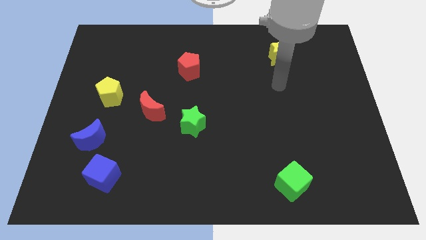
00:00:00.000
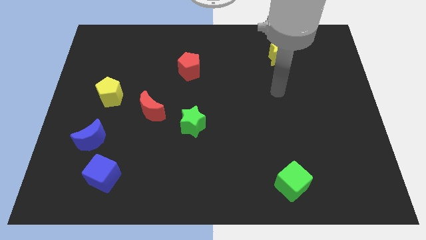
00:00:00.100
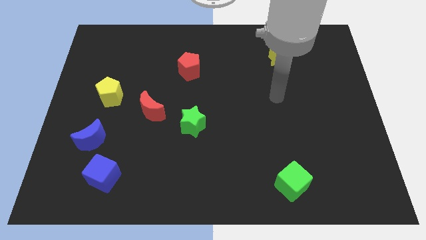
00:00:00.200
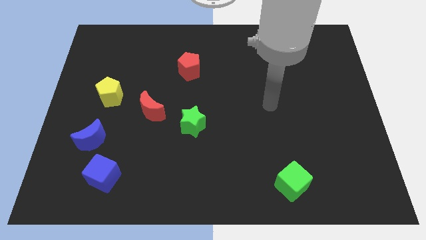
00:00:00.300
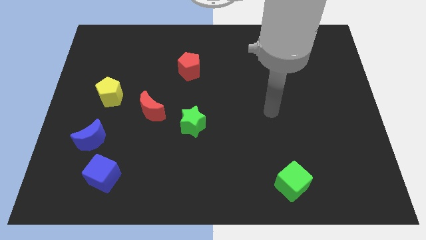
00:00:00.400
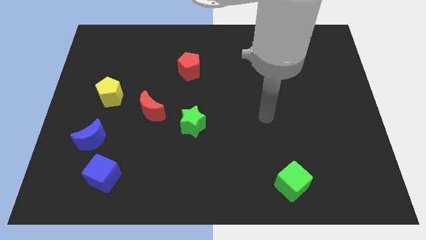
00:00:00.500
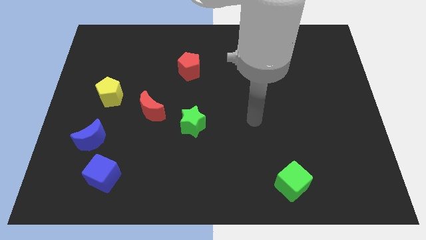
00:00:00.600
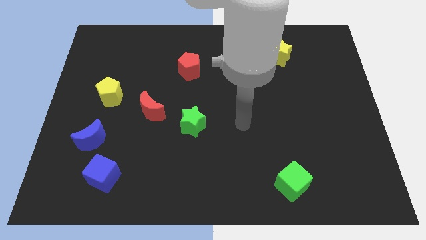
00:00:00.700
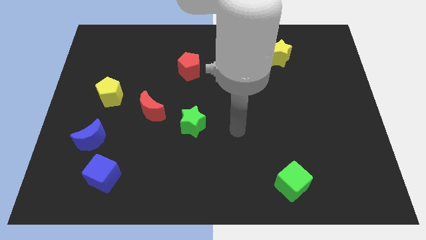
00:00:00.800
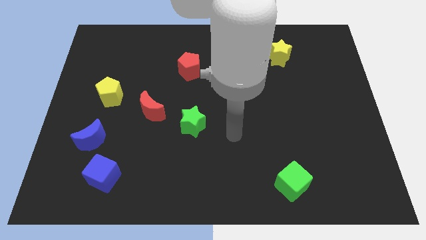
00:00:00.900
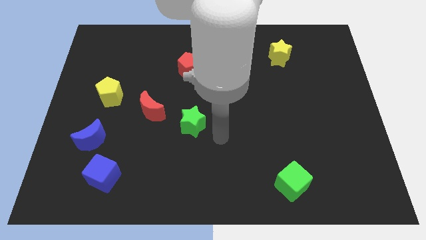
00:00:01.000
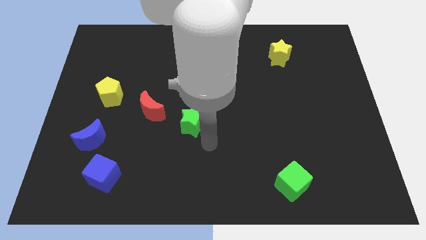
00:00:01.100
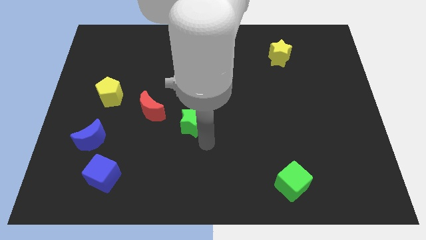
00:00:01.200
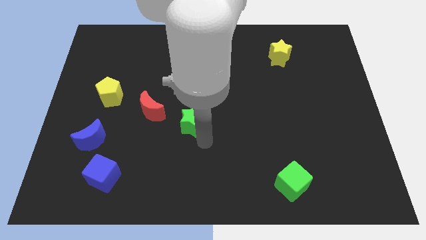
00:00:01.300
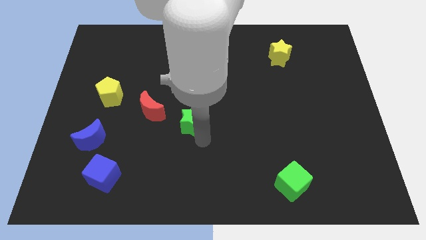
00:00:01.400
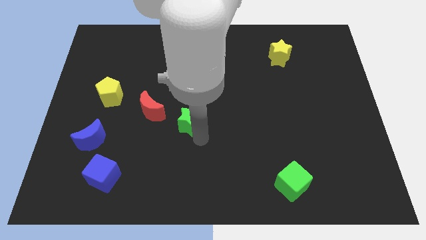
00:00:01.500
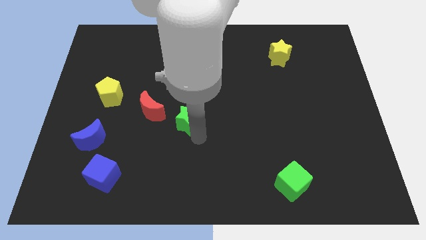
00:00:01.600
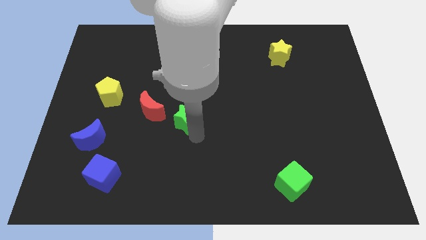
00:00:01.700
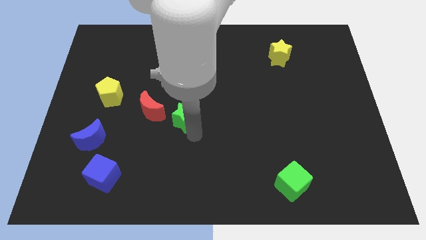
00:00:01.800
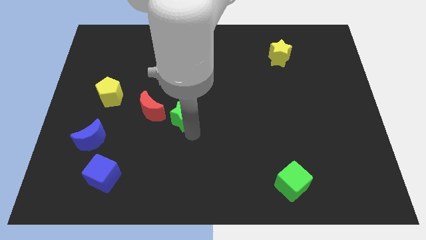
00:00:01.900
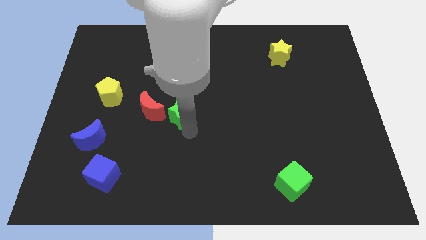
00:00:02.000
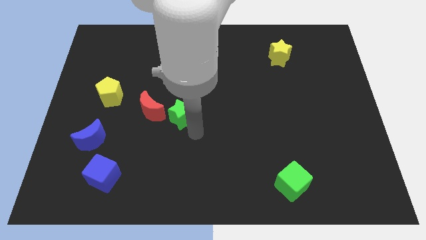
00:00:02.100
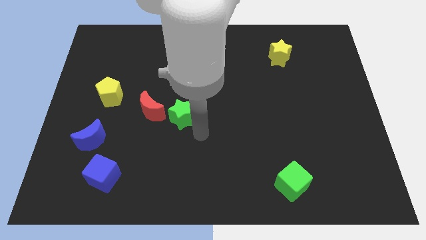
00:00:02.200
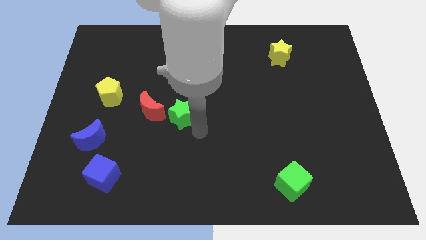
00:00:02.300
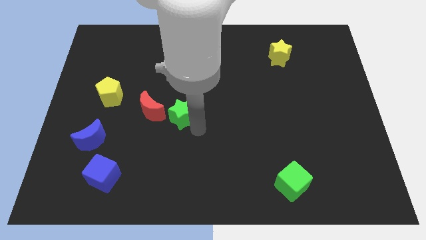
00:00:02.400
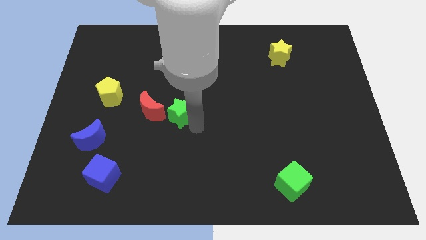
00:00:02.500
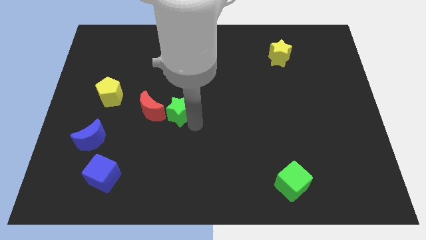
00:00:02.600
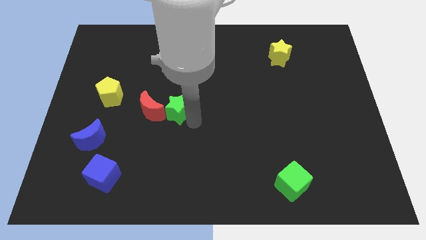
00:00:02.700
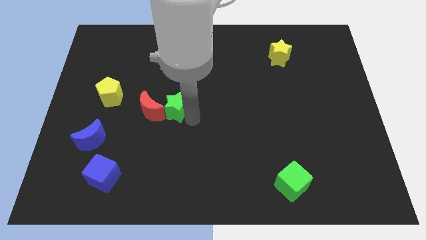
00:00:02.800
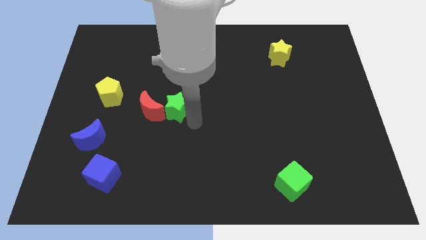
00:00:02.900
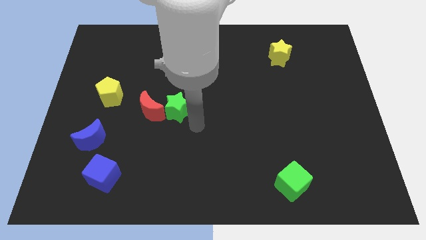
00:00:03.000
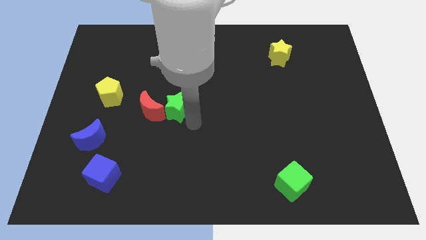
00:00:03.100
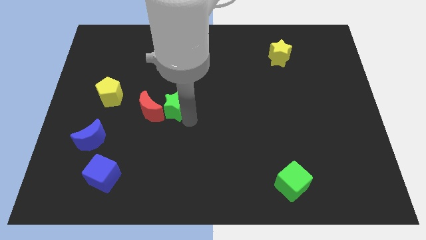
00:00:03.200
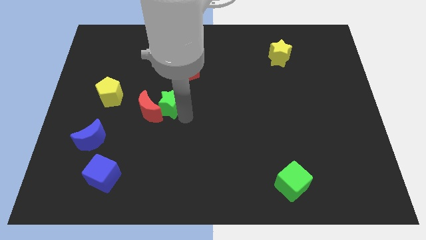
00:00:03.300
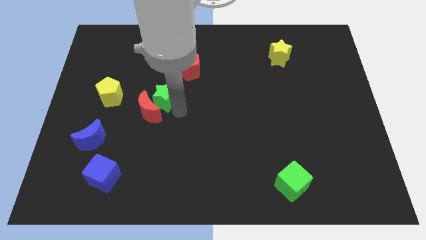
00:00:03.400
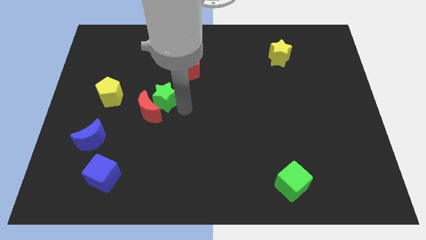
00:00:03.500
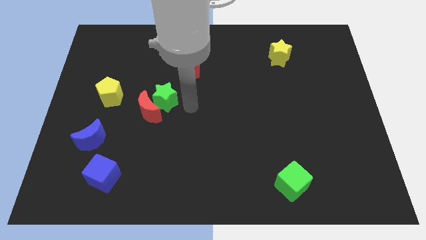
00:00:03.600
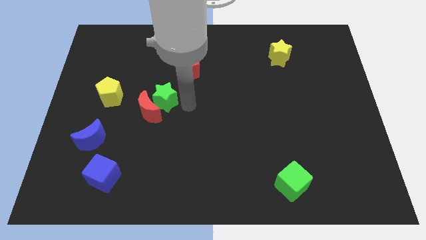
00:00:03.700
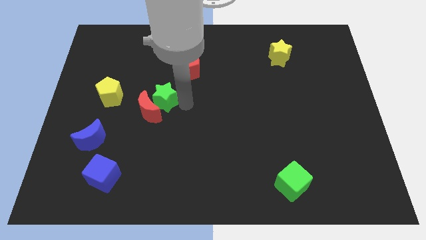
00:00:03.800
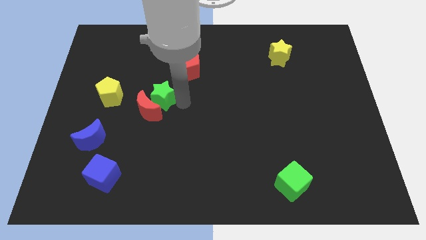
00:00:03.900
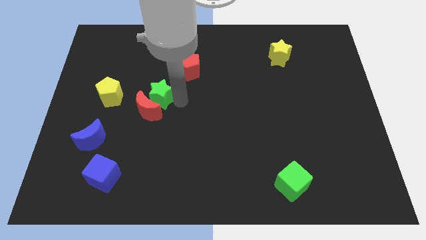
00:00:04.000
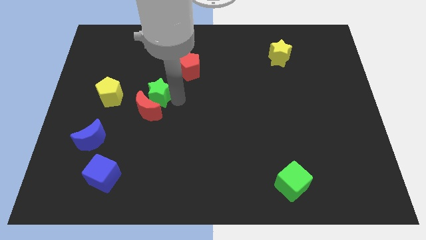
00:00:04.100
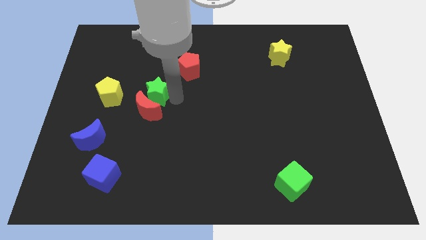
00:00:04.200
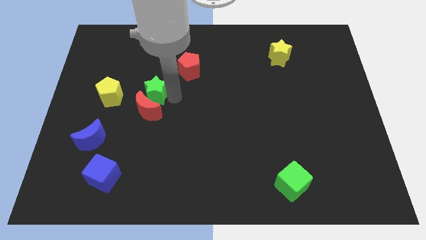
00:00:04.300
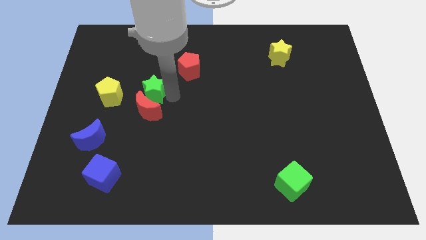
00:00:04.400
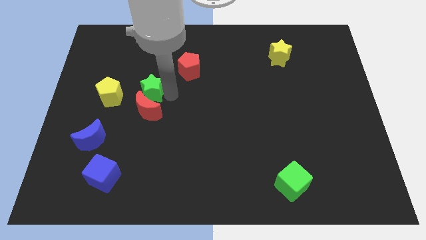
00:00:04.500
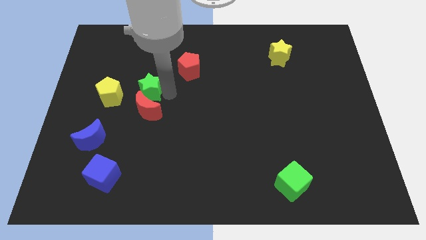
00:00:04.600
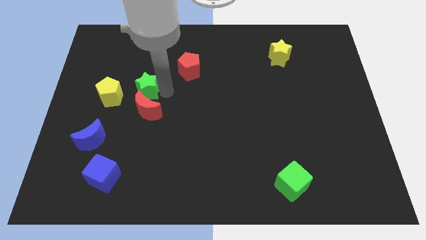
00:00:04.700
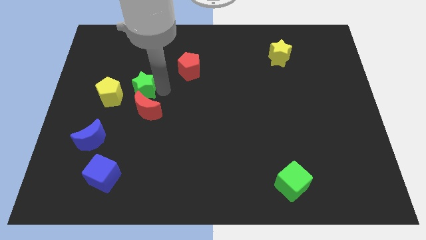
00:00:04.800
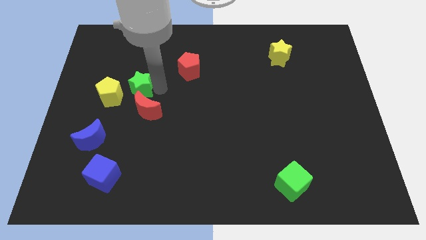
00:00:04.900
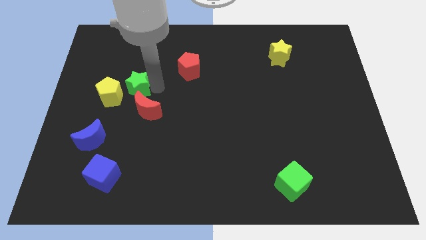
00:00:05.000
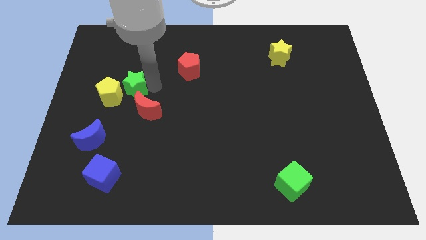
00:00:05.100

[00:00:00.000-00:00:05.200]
move the green star next to the yellow pentagon

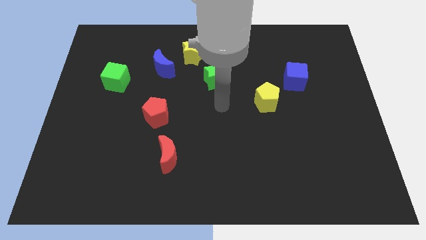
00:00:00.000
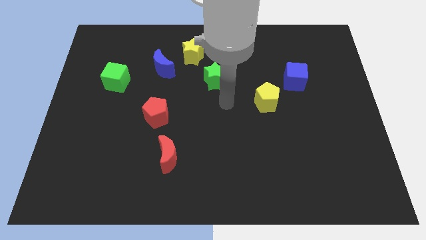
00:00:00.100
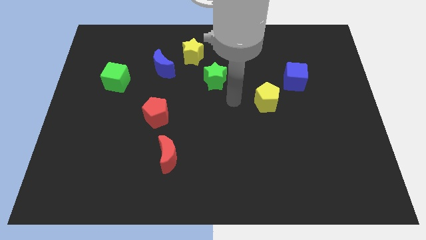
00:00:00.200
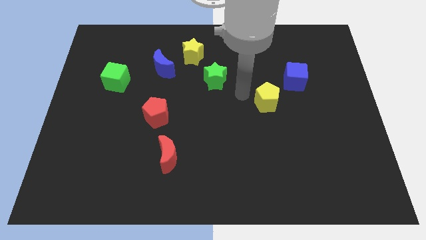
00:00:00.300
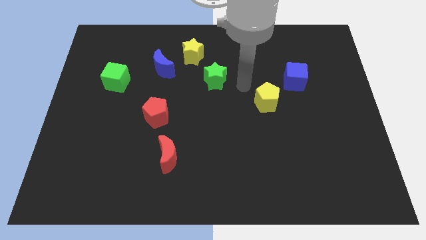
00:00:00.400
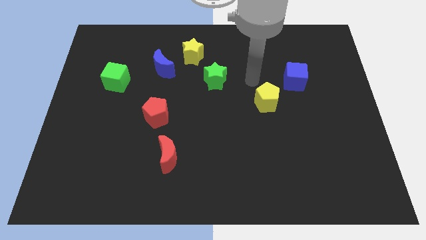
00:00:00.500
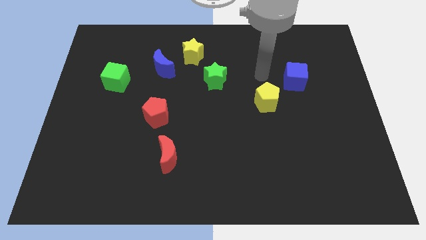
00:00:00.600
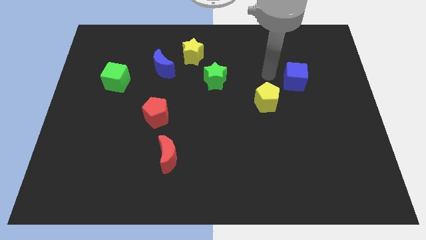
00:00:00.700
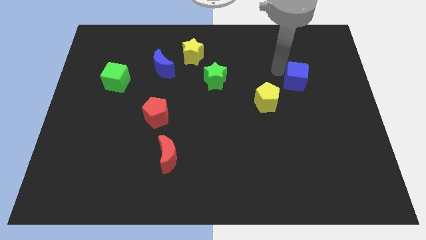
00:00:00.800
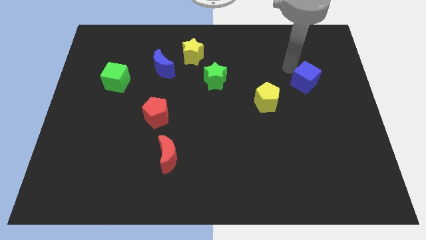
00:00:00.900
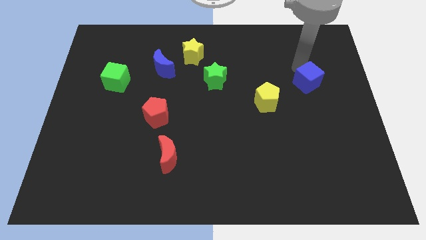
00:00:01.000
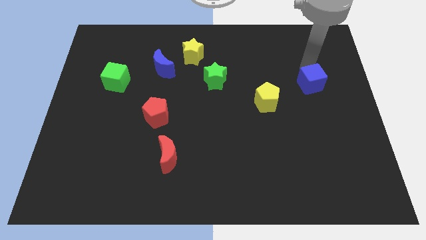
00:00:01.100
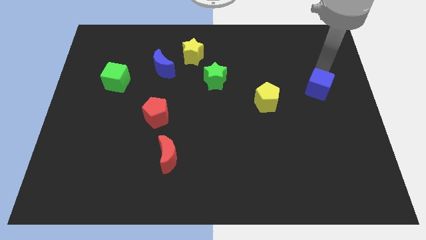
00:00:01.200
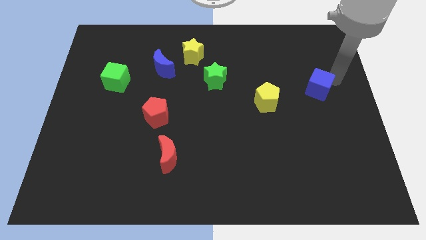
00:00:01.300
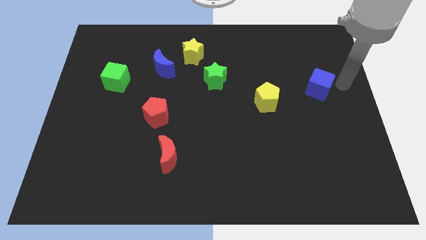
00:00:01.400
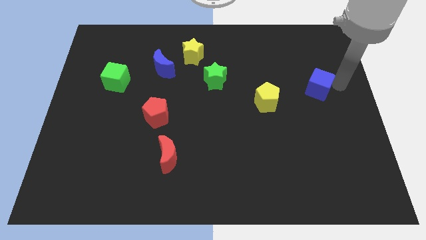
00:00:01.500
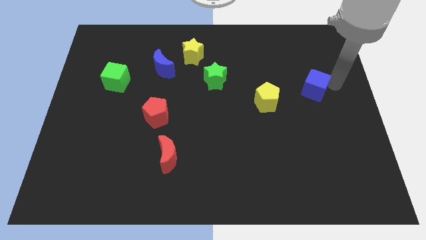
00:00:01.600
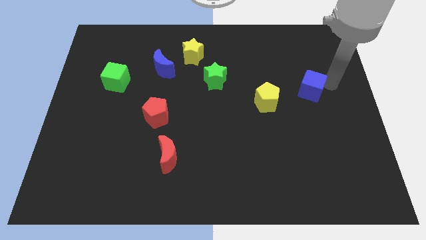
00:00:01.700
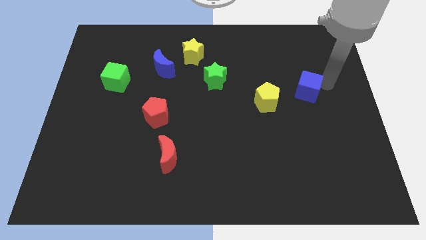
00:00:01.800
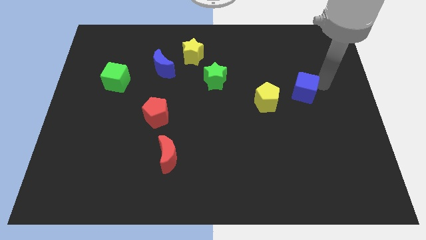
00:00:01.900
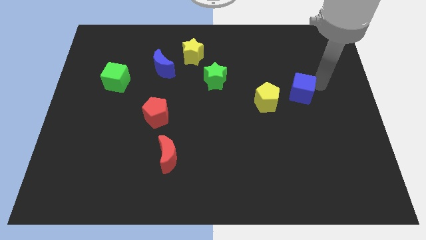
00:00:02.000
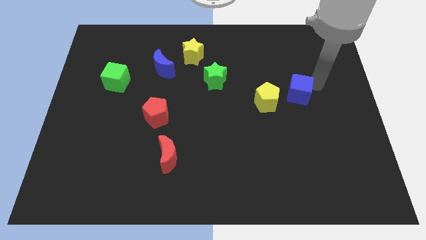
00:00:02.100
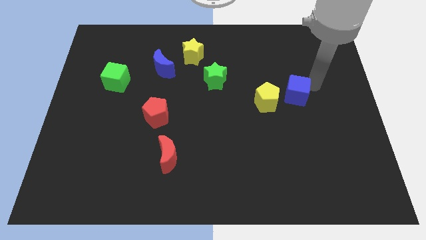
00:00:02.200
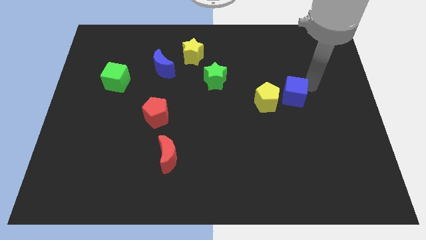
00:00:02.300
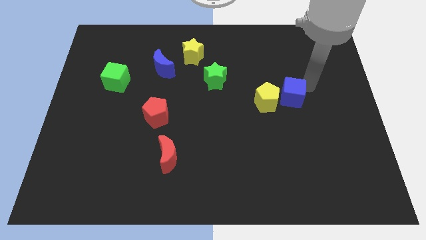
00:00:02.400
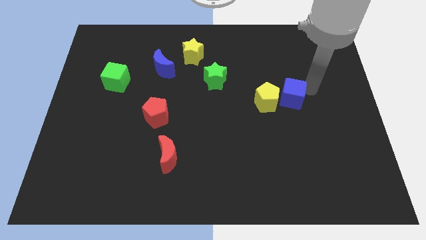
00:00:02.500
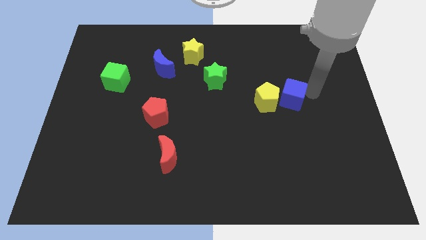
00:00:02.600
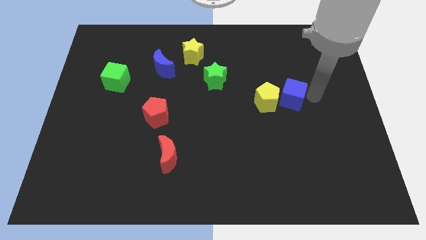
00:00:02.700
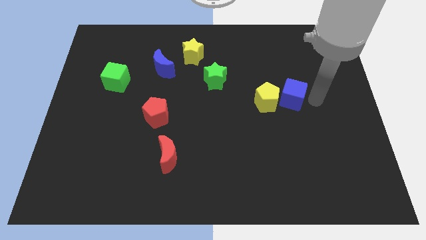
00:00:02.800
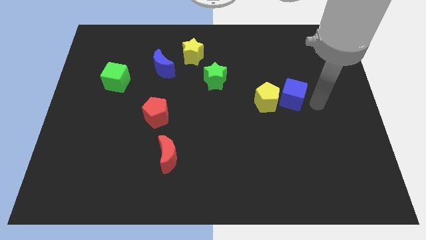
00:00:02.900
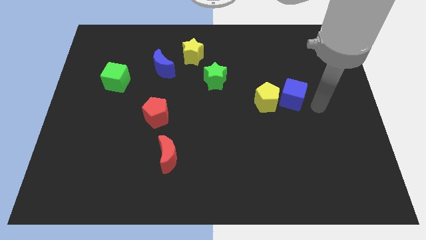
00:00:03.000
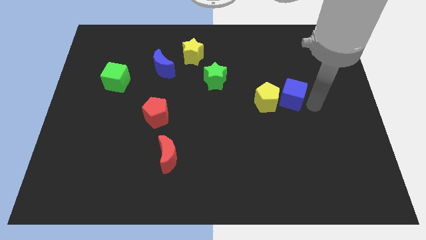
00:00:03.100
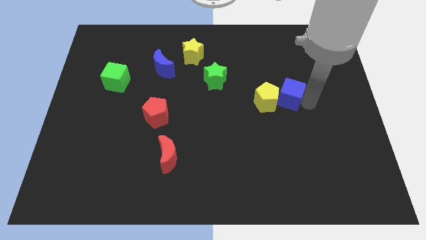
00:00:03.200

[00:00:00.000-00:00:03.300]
move the blue cube to the yellow pentagon
